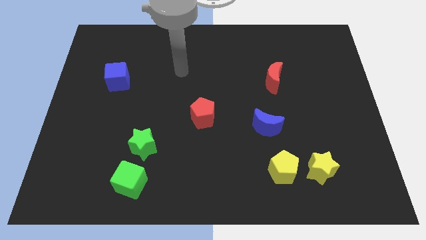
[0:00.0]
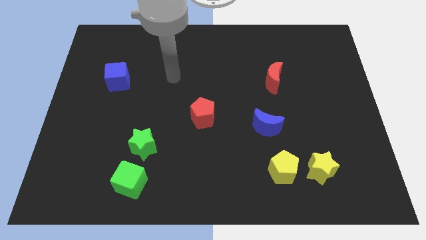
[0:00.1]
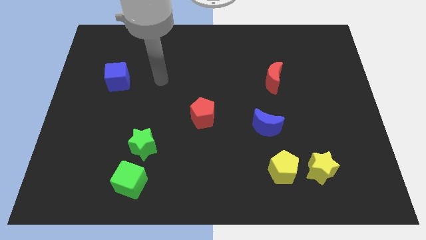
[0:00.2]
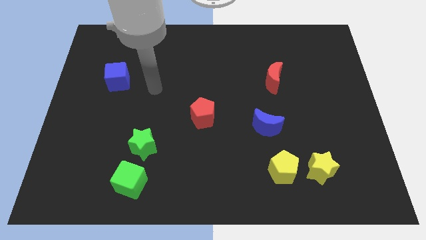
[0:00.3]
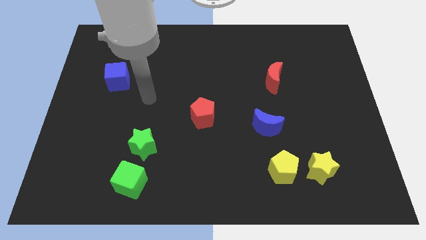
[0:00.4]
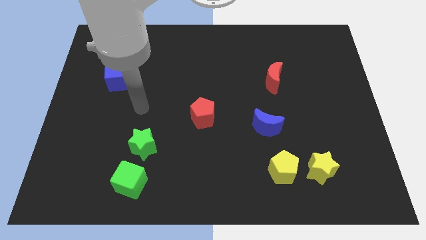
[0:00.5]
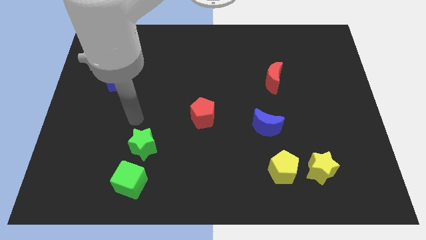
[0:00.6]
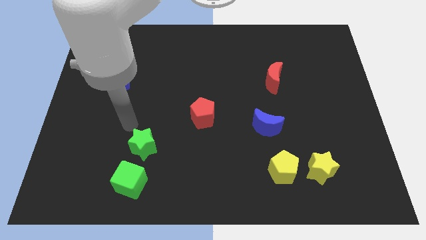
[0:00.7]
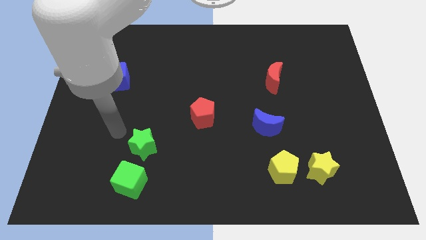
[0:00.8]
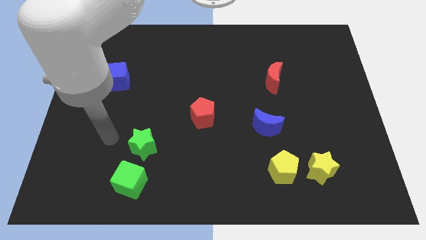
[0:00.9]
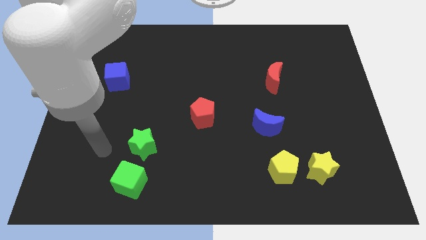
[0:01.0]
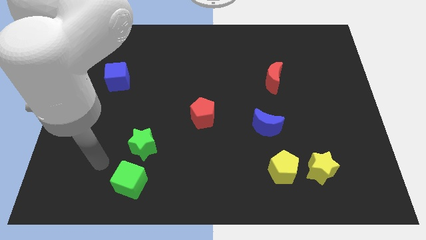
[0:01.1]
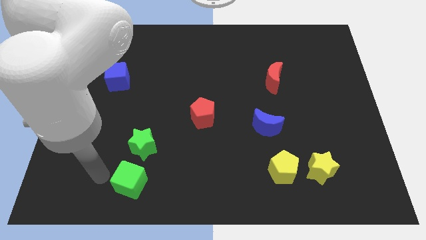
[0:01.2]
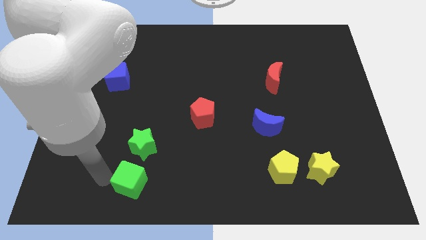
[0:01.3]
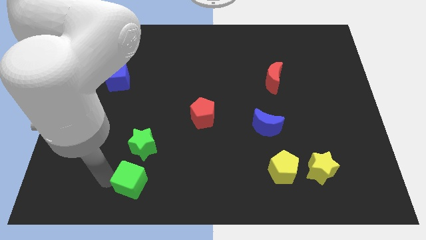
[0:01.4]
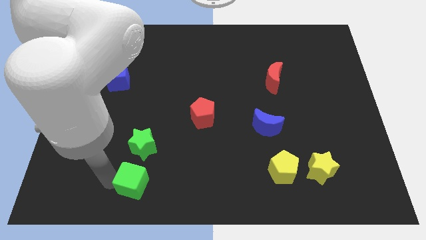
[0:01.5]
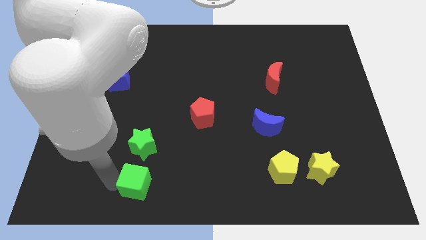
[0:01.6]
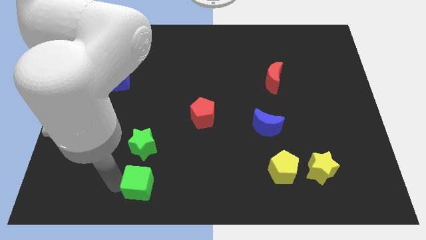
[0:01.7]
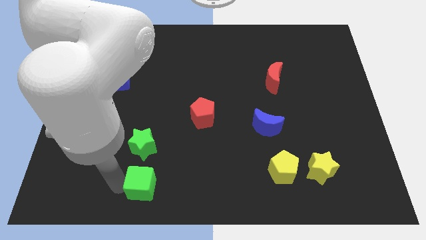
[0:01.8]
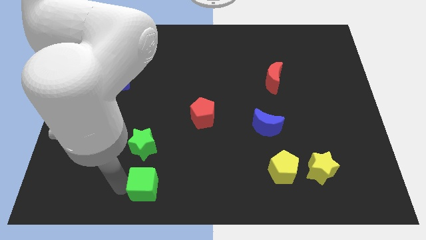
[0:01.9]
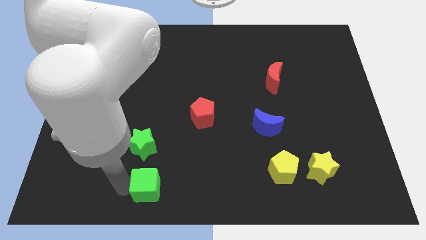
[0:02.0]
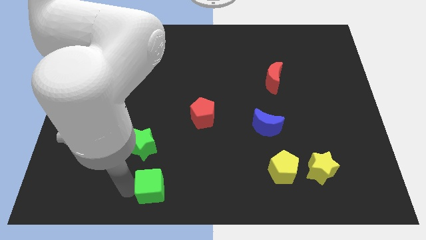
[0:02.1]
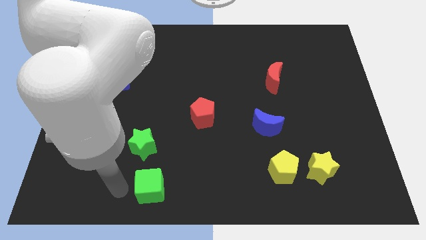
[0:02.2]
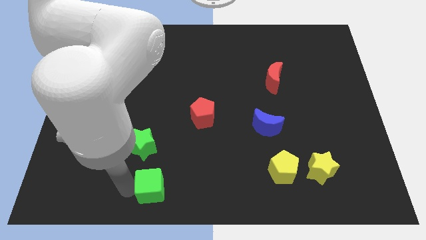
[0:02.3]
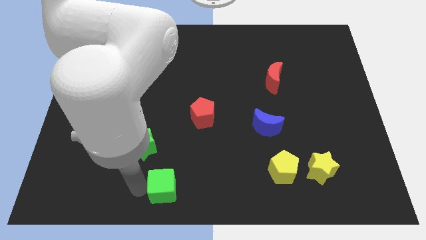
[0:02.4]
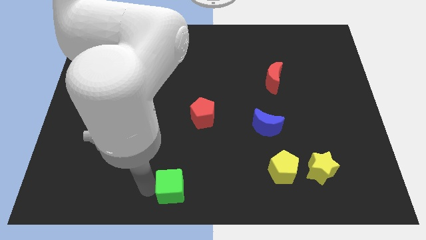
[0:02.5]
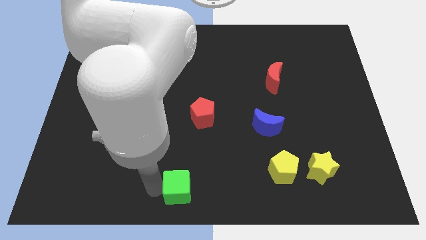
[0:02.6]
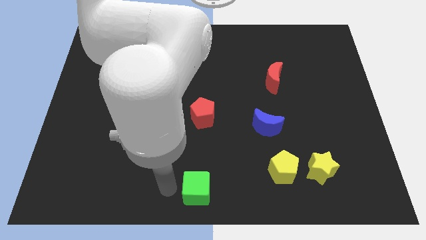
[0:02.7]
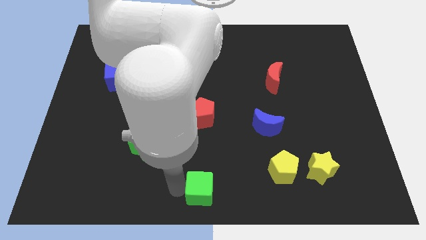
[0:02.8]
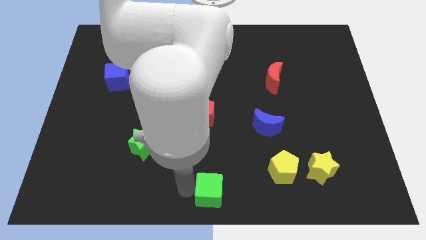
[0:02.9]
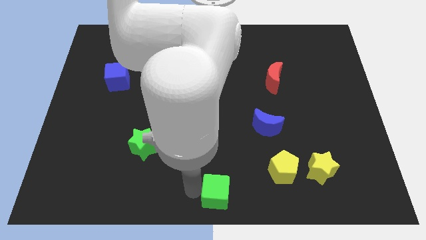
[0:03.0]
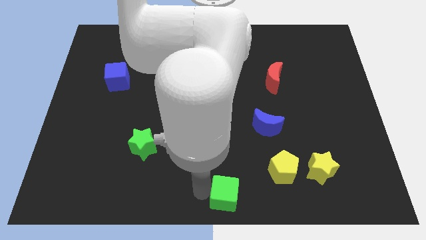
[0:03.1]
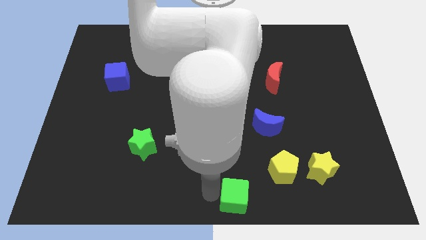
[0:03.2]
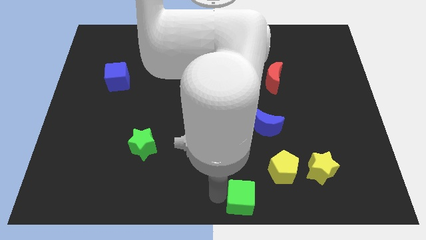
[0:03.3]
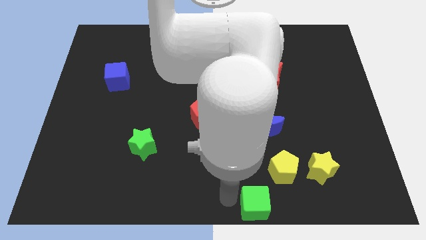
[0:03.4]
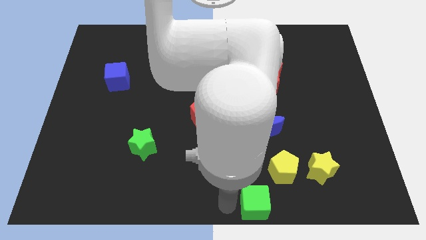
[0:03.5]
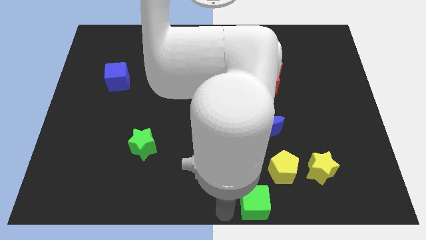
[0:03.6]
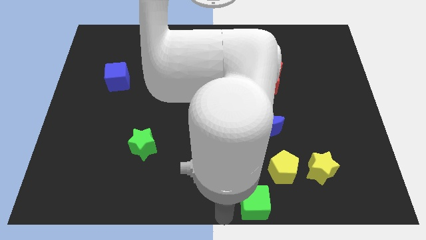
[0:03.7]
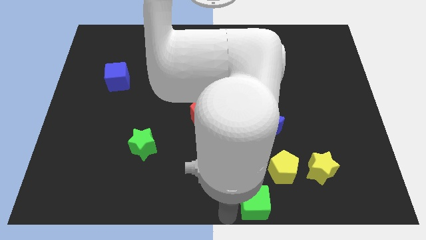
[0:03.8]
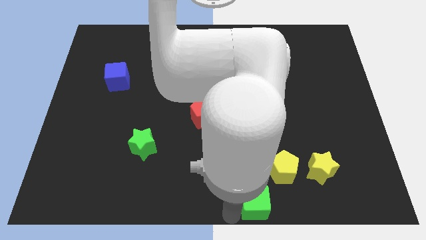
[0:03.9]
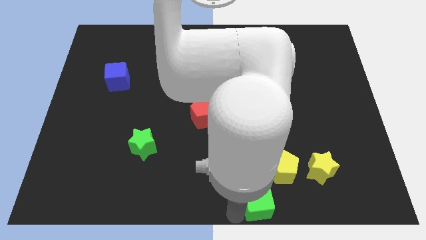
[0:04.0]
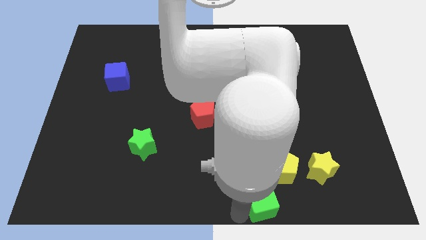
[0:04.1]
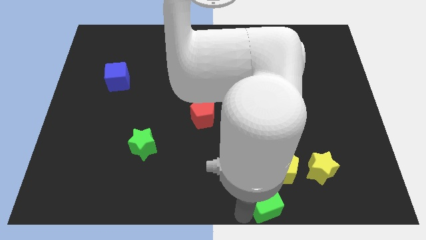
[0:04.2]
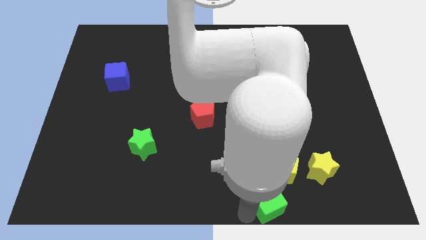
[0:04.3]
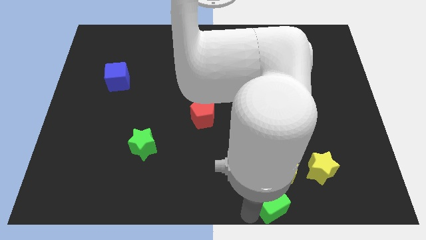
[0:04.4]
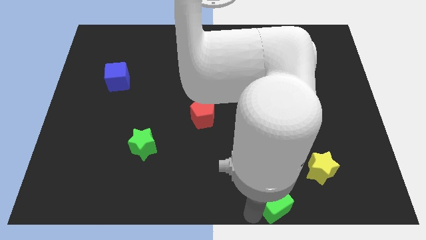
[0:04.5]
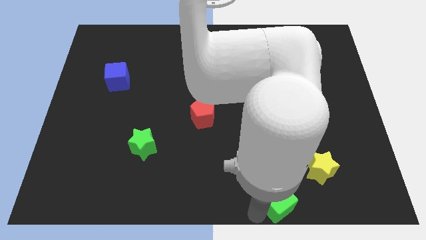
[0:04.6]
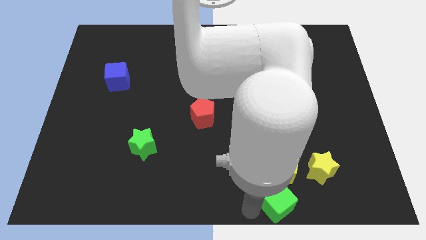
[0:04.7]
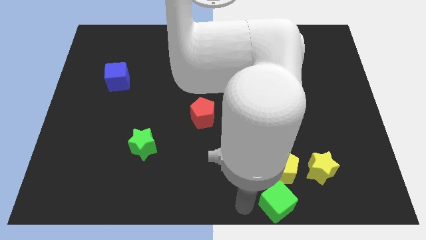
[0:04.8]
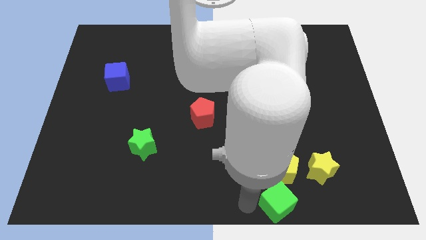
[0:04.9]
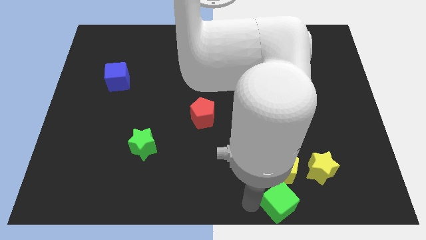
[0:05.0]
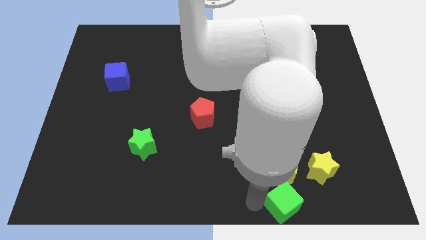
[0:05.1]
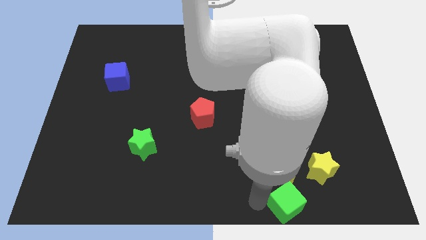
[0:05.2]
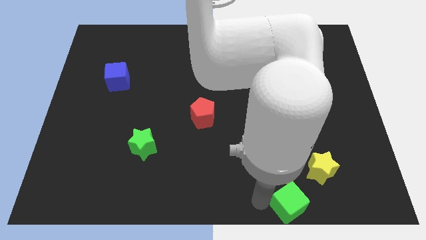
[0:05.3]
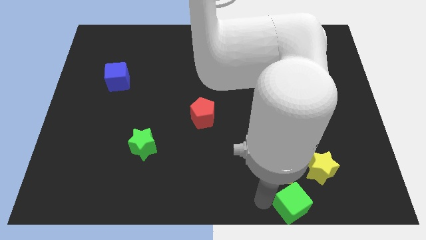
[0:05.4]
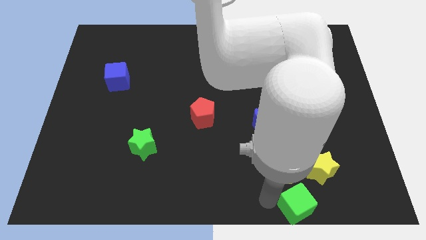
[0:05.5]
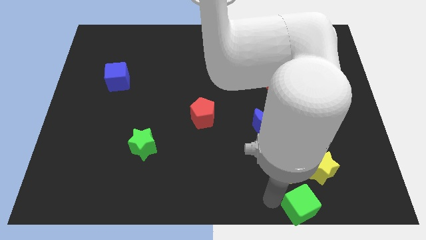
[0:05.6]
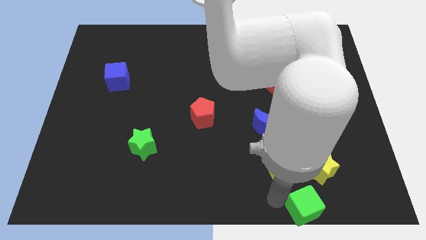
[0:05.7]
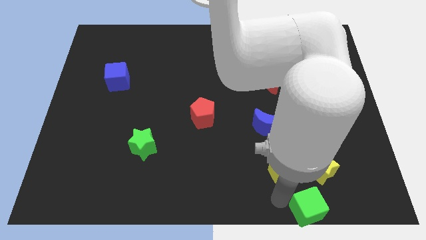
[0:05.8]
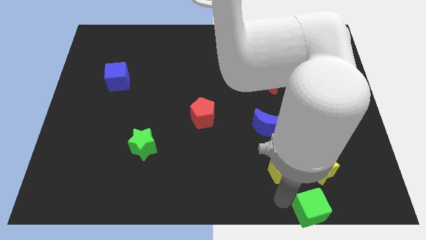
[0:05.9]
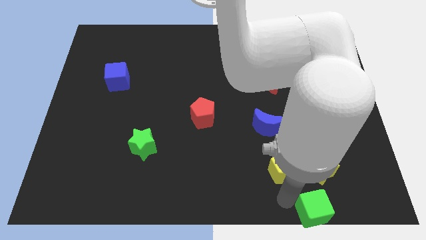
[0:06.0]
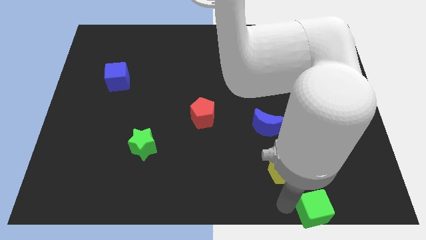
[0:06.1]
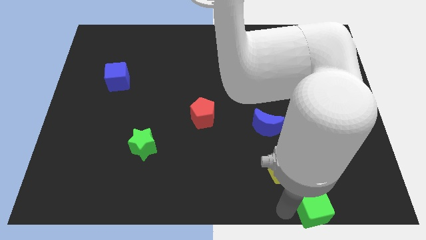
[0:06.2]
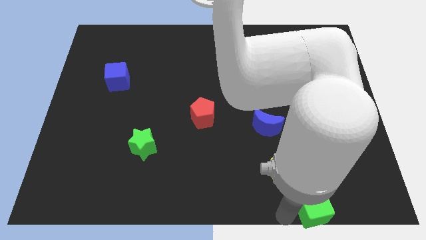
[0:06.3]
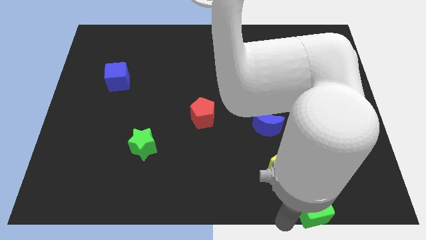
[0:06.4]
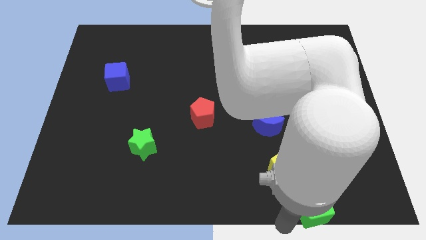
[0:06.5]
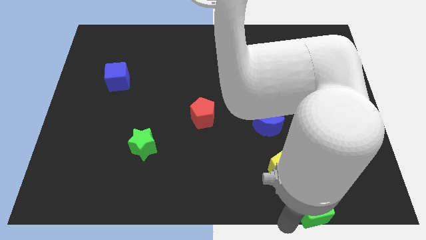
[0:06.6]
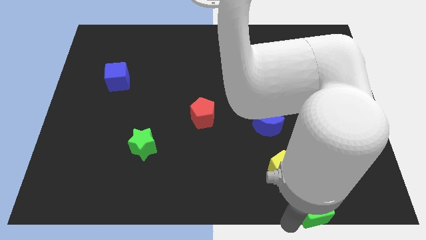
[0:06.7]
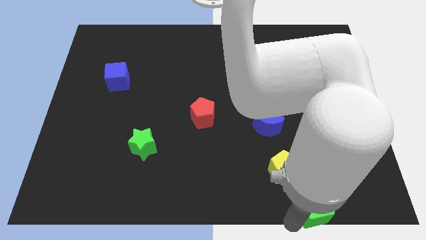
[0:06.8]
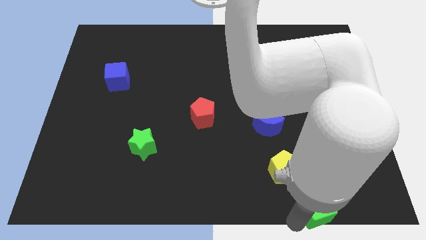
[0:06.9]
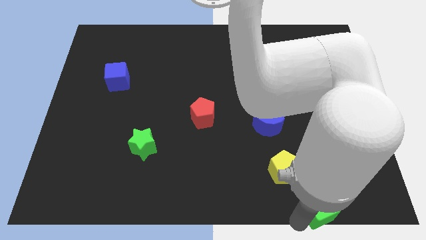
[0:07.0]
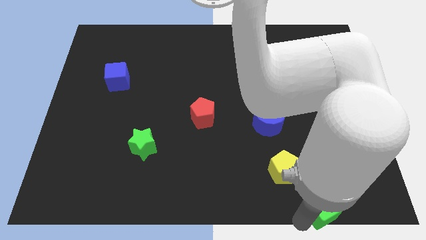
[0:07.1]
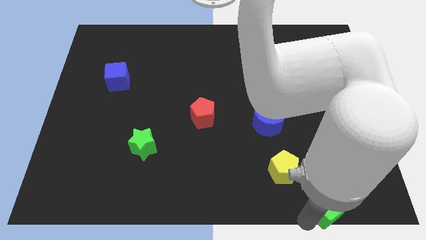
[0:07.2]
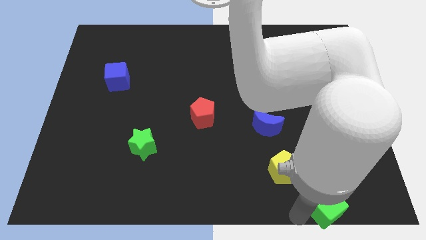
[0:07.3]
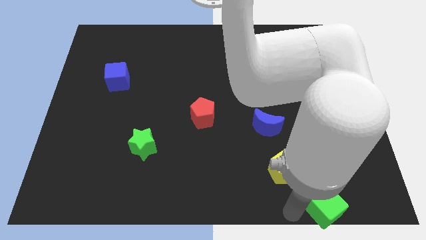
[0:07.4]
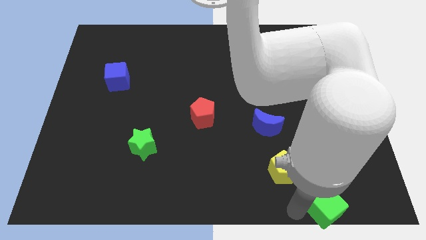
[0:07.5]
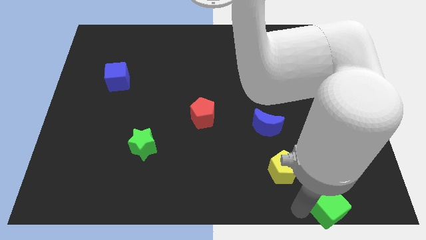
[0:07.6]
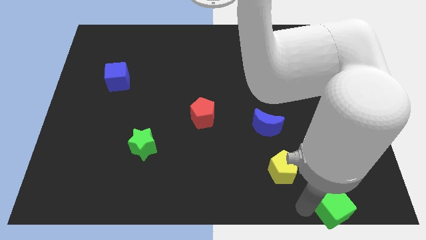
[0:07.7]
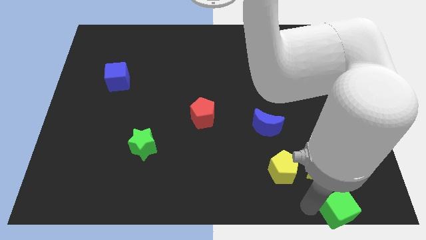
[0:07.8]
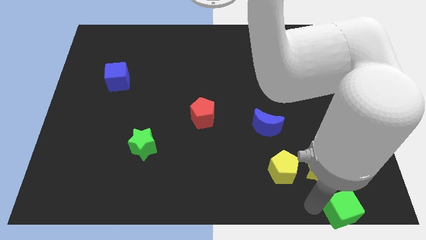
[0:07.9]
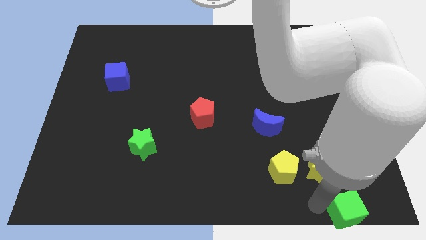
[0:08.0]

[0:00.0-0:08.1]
move the green cube to the bottom right
